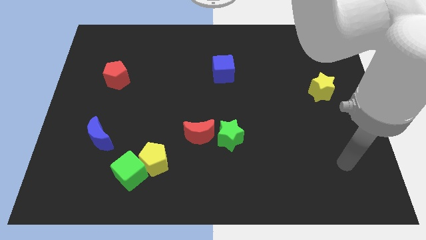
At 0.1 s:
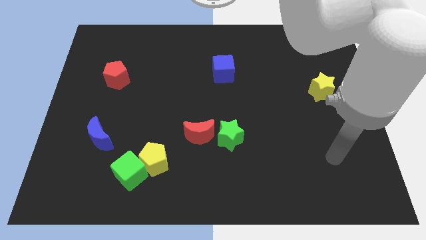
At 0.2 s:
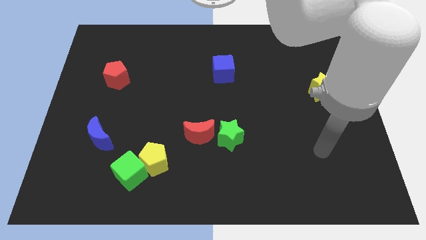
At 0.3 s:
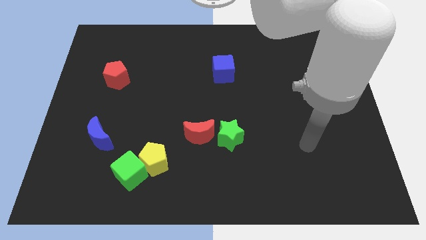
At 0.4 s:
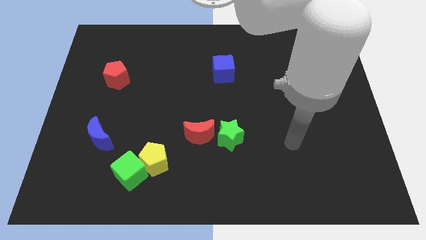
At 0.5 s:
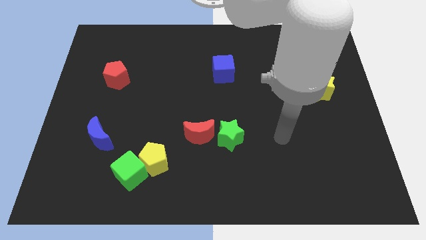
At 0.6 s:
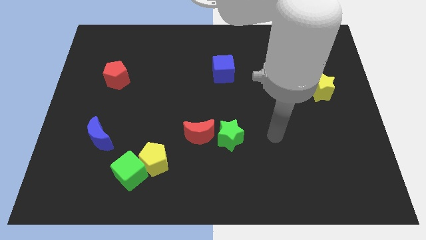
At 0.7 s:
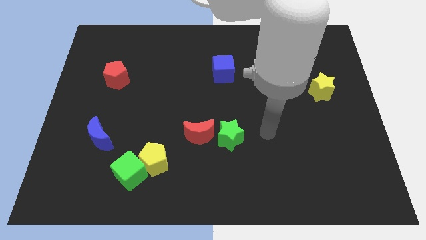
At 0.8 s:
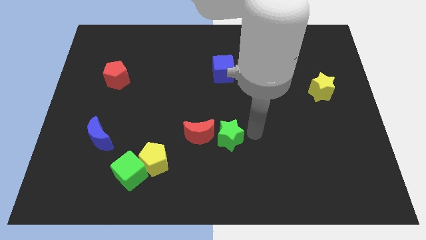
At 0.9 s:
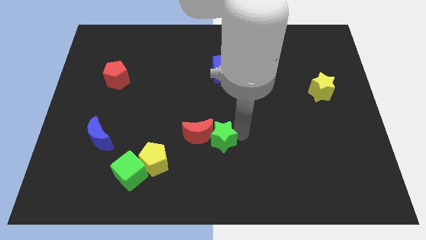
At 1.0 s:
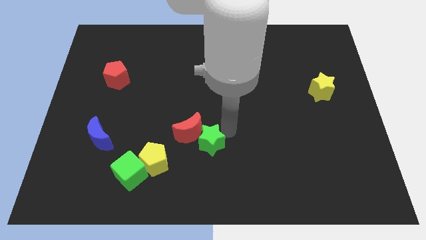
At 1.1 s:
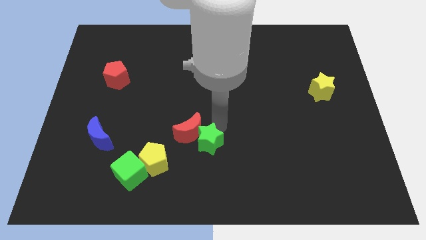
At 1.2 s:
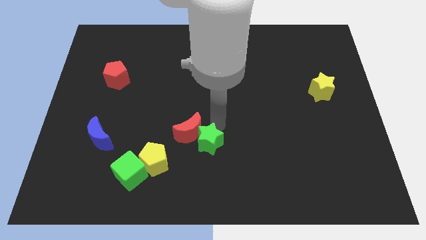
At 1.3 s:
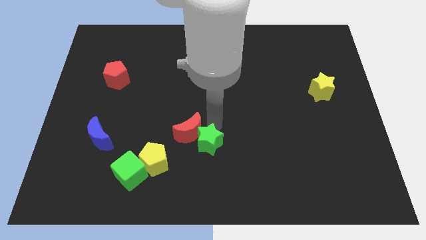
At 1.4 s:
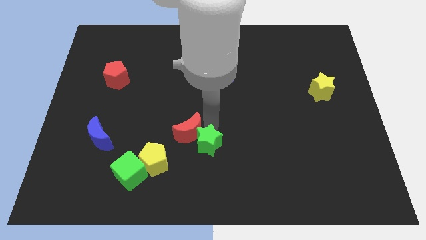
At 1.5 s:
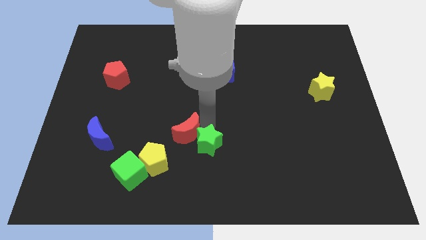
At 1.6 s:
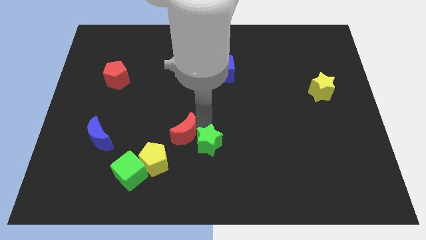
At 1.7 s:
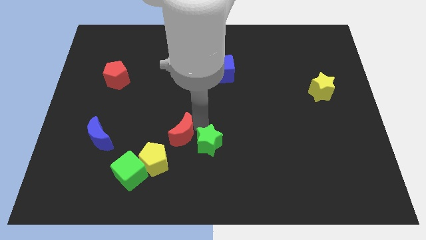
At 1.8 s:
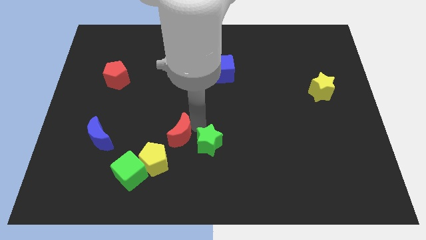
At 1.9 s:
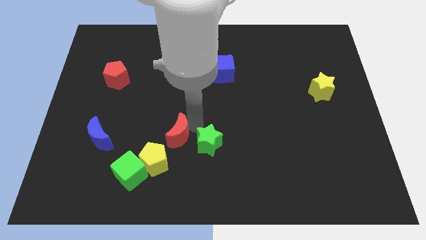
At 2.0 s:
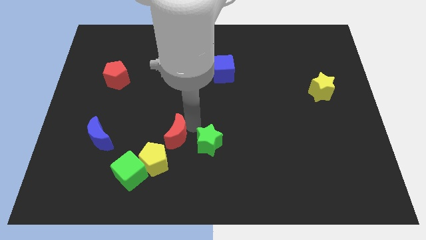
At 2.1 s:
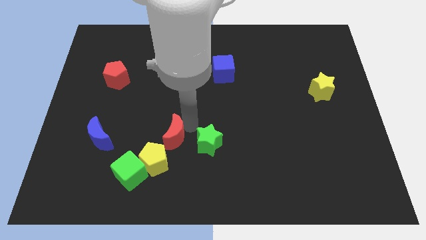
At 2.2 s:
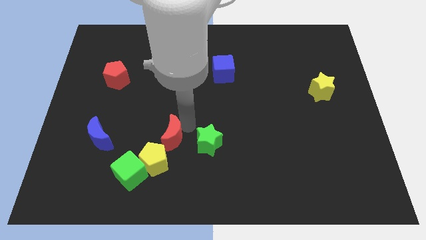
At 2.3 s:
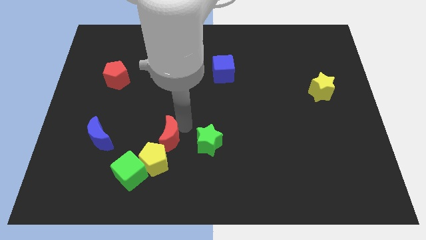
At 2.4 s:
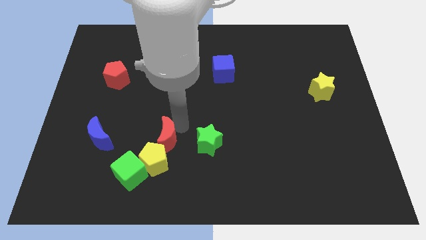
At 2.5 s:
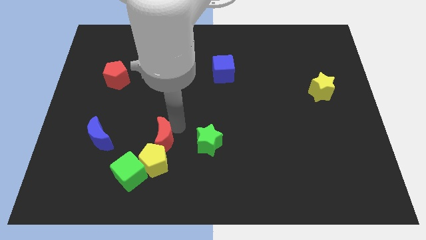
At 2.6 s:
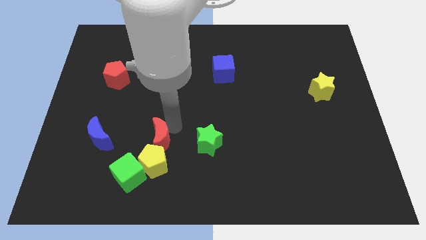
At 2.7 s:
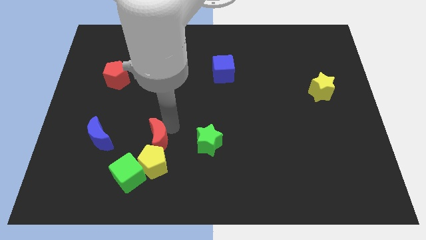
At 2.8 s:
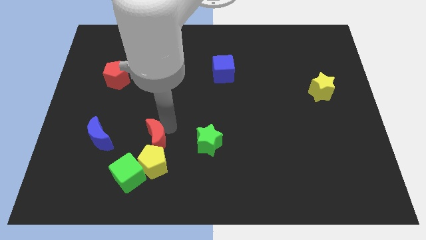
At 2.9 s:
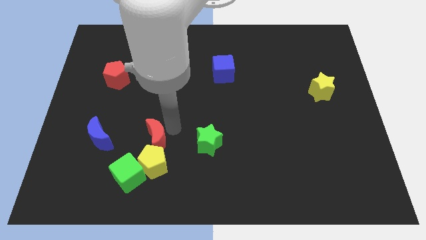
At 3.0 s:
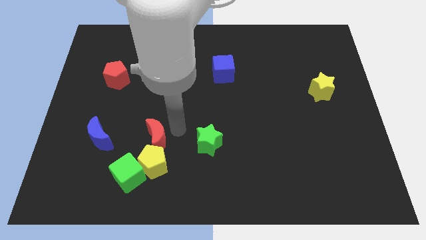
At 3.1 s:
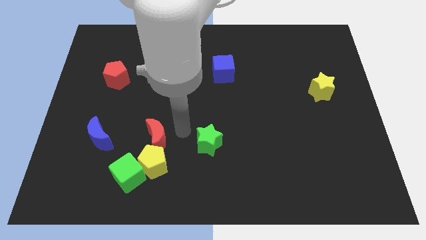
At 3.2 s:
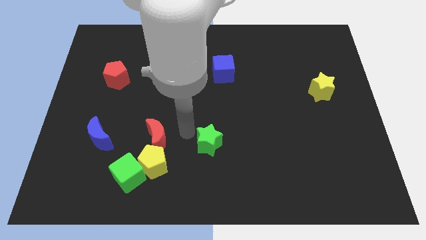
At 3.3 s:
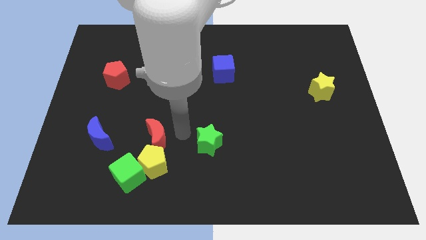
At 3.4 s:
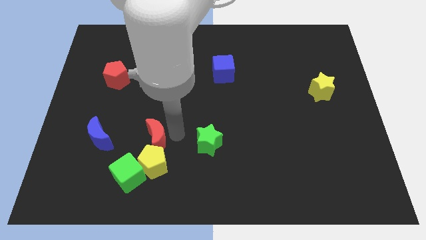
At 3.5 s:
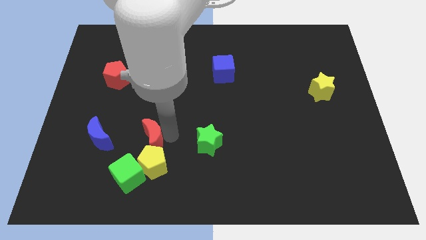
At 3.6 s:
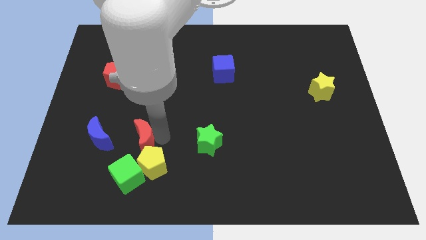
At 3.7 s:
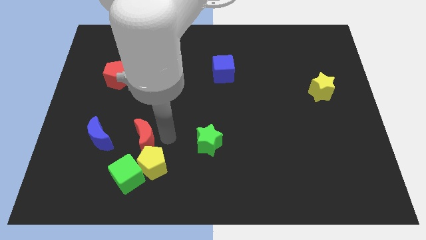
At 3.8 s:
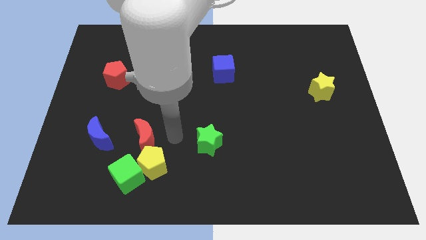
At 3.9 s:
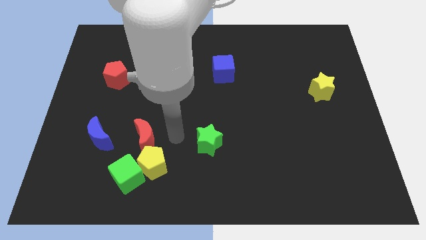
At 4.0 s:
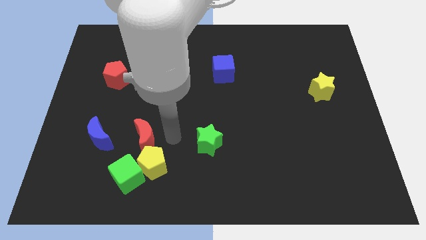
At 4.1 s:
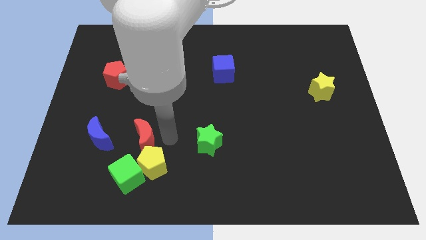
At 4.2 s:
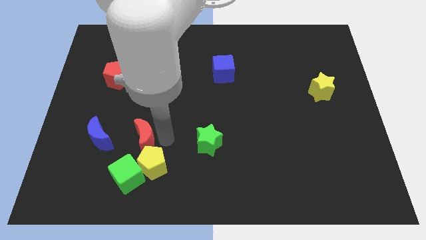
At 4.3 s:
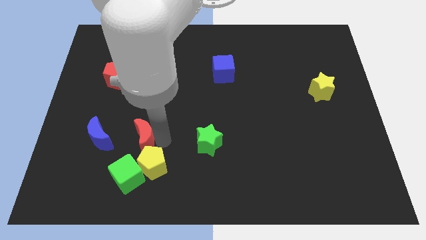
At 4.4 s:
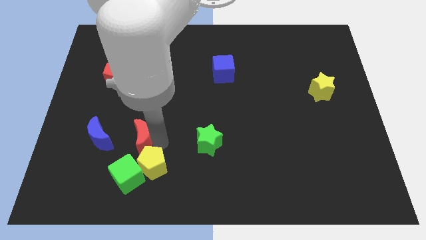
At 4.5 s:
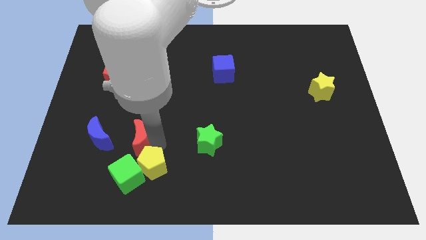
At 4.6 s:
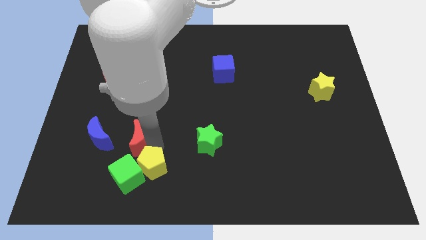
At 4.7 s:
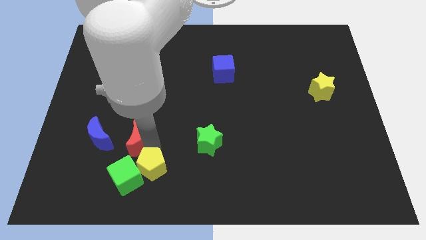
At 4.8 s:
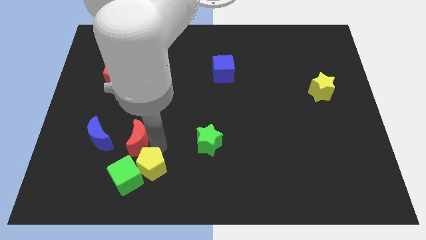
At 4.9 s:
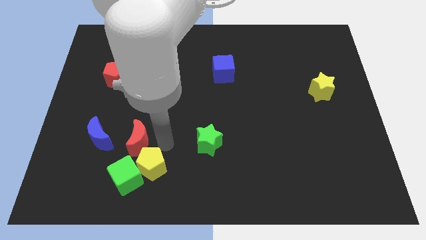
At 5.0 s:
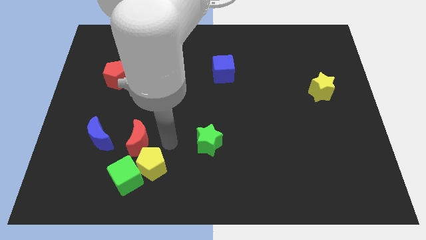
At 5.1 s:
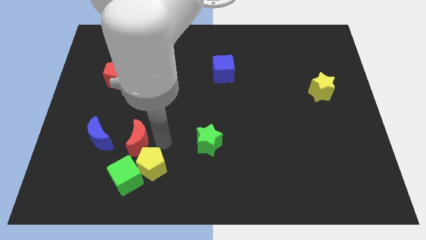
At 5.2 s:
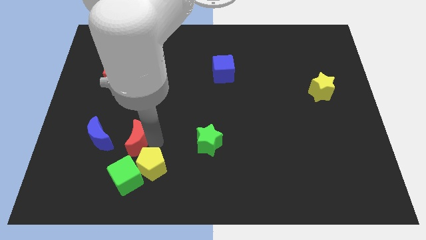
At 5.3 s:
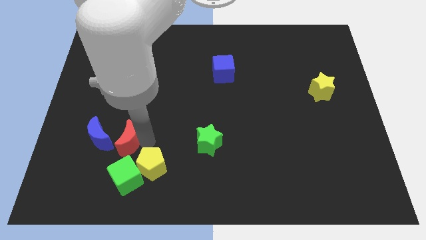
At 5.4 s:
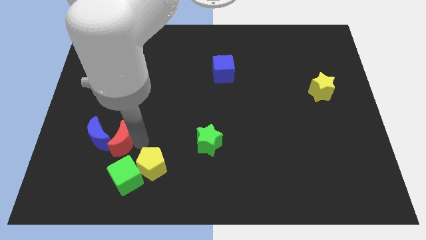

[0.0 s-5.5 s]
put the red moon close to the blue moon

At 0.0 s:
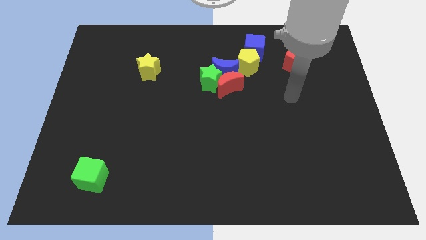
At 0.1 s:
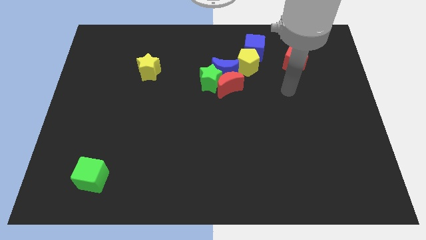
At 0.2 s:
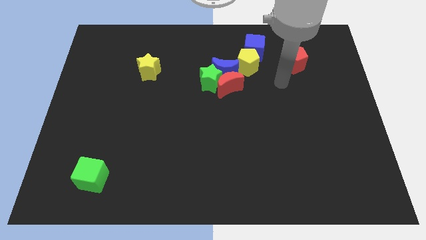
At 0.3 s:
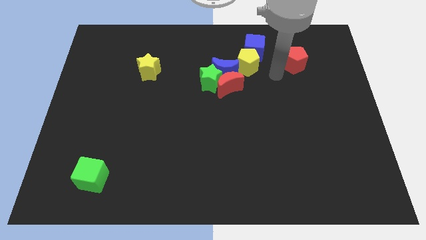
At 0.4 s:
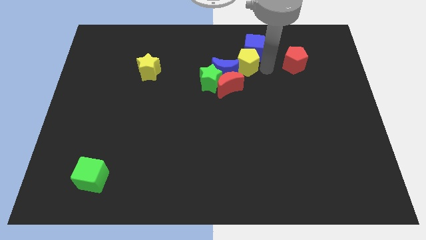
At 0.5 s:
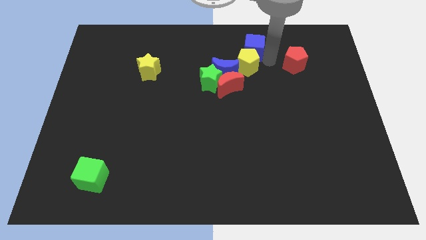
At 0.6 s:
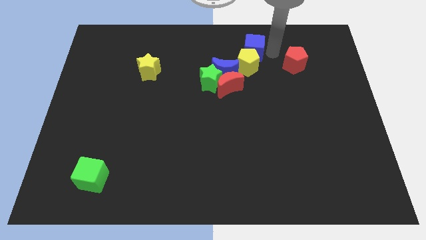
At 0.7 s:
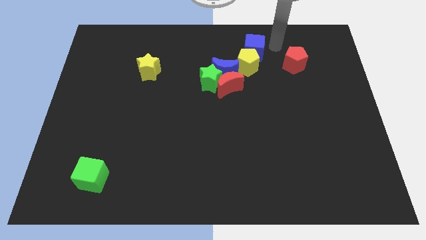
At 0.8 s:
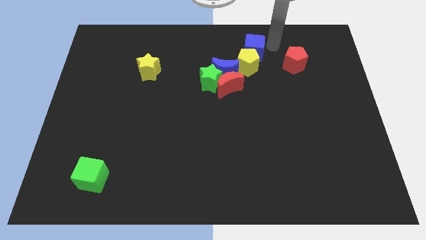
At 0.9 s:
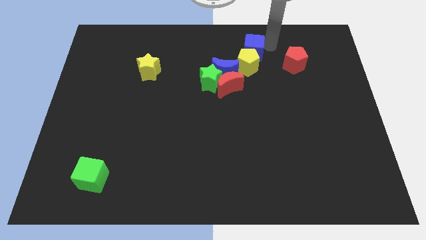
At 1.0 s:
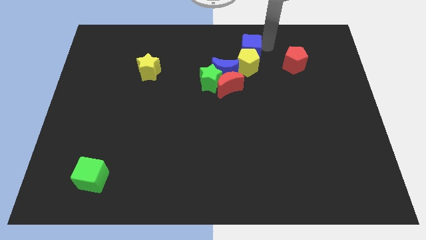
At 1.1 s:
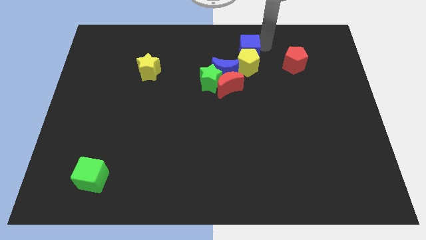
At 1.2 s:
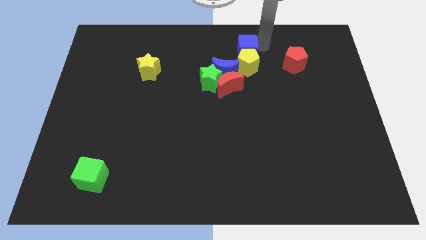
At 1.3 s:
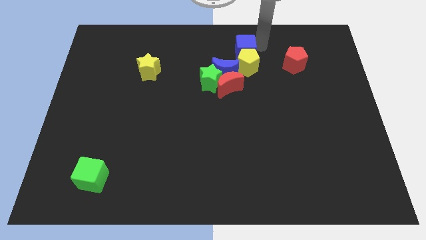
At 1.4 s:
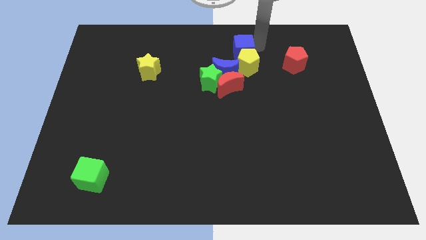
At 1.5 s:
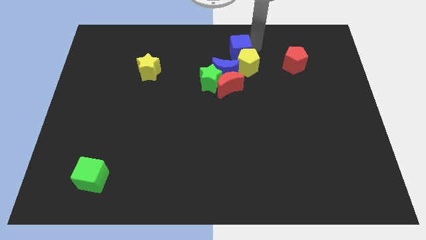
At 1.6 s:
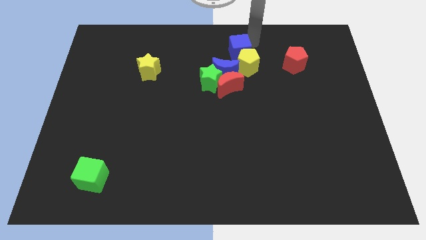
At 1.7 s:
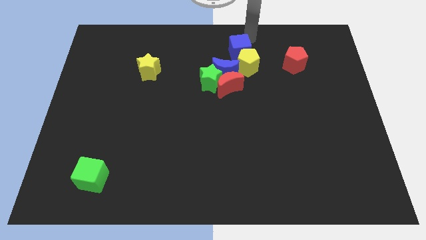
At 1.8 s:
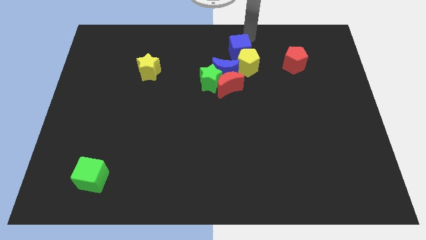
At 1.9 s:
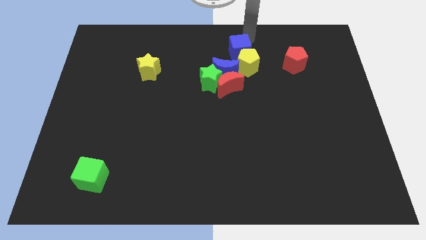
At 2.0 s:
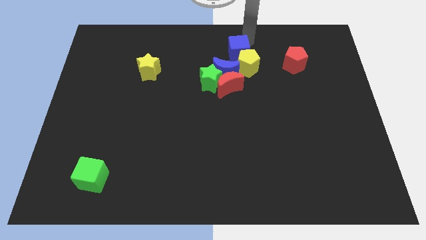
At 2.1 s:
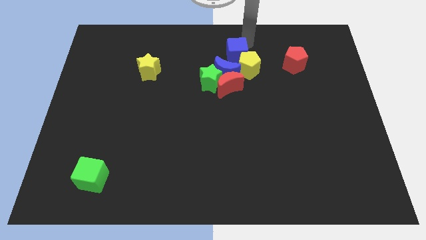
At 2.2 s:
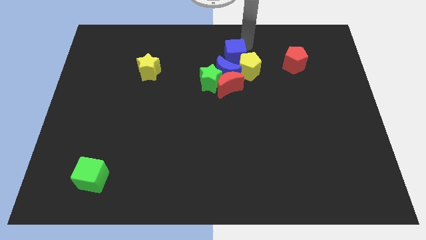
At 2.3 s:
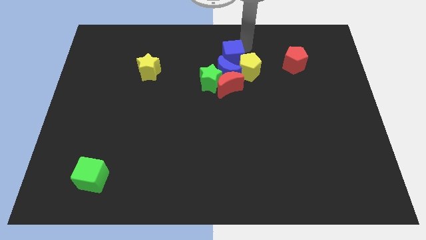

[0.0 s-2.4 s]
push the blue cube next to the blue moon
